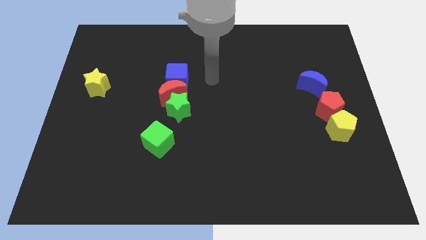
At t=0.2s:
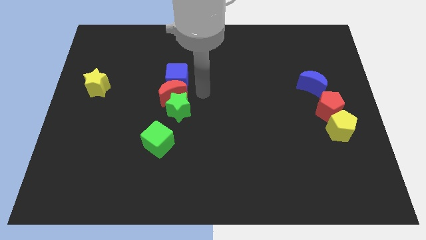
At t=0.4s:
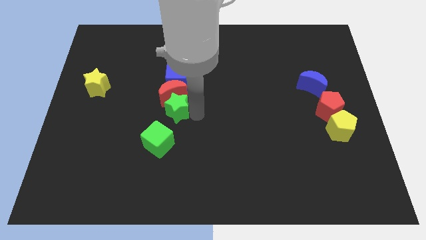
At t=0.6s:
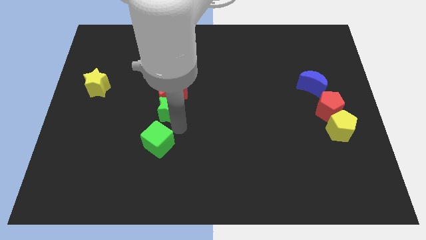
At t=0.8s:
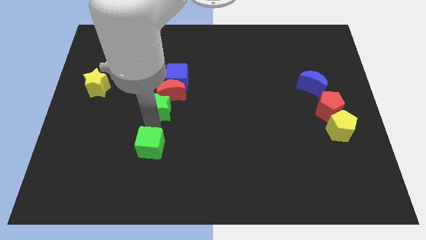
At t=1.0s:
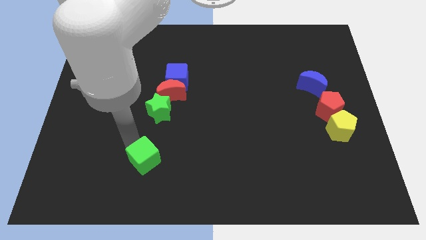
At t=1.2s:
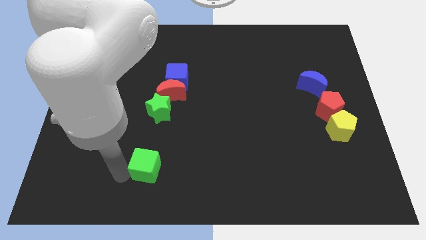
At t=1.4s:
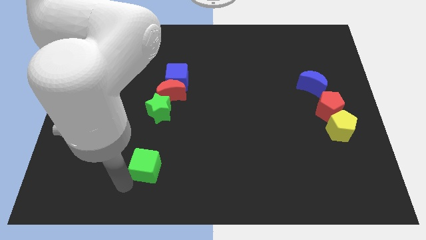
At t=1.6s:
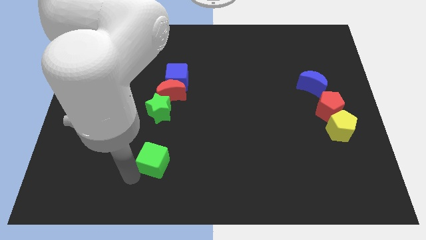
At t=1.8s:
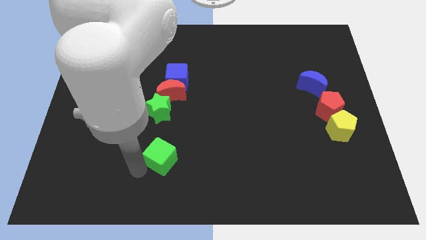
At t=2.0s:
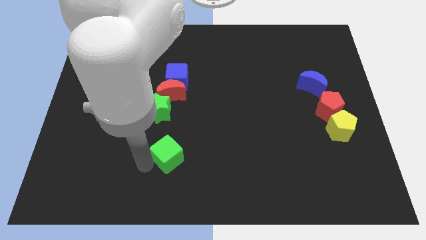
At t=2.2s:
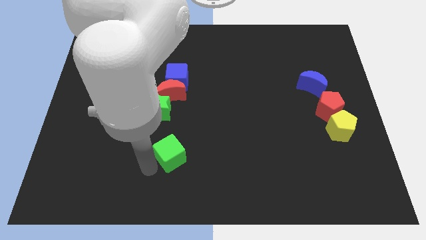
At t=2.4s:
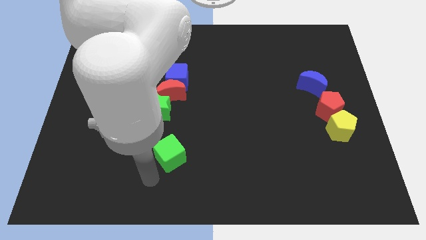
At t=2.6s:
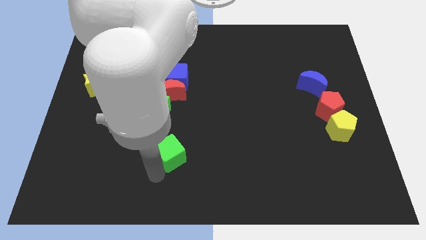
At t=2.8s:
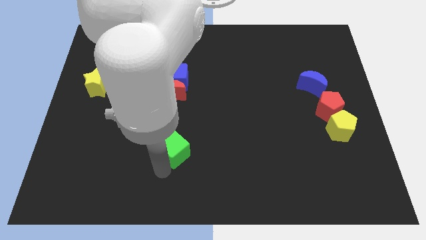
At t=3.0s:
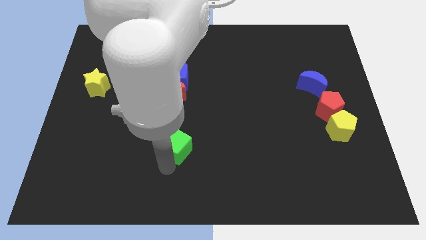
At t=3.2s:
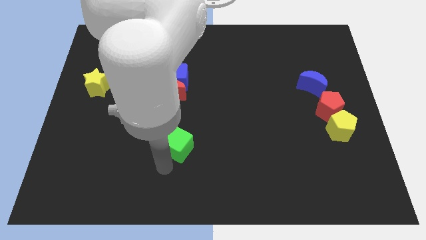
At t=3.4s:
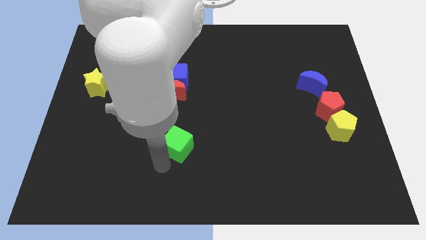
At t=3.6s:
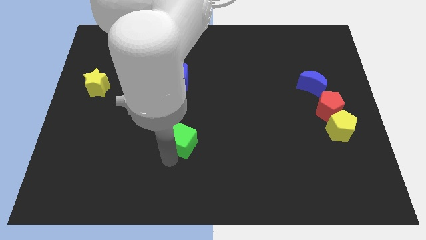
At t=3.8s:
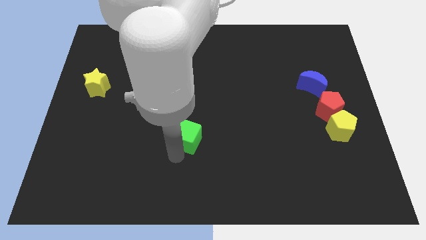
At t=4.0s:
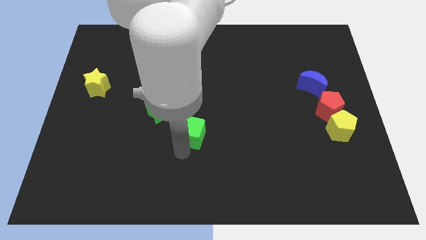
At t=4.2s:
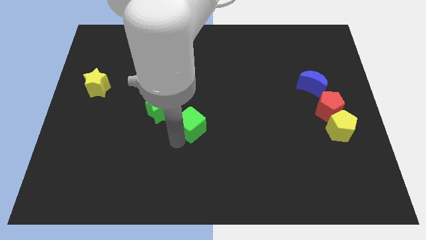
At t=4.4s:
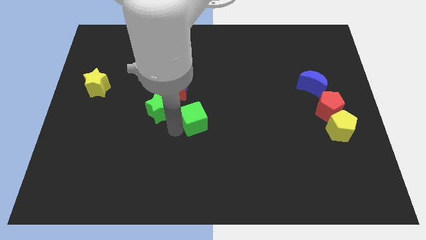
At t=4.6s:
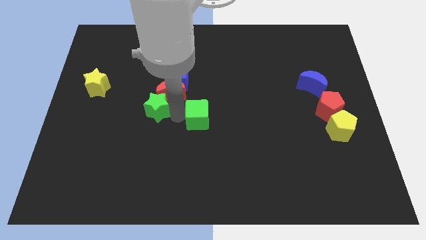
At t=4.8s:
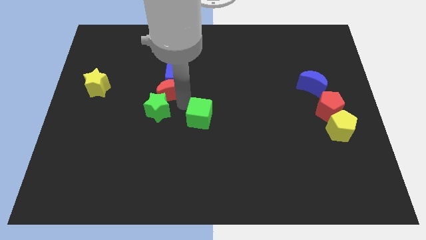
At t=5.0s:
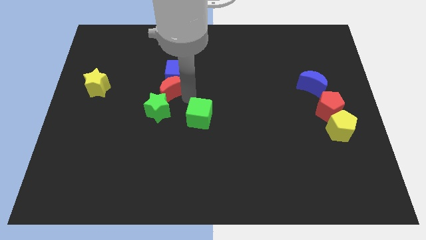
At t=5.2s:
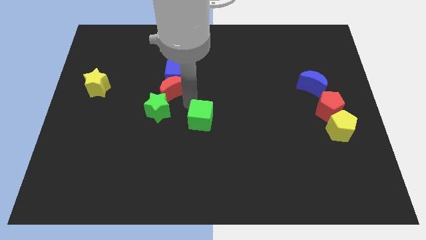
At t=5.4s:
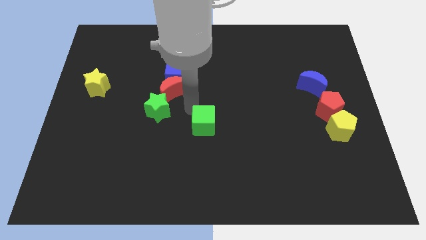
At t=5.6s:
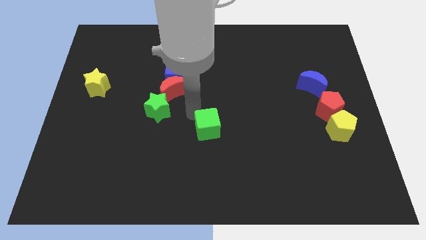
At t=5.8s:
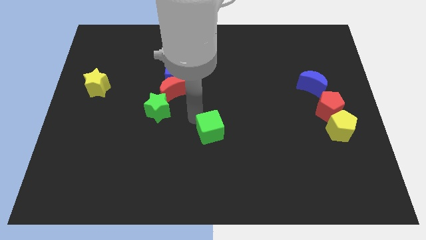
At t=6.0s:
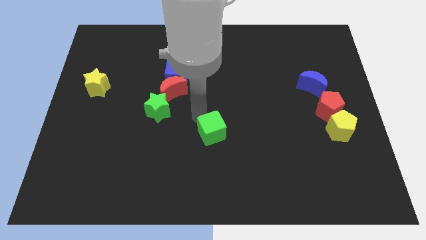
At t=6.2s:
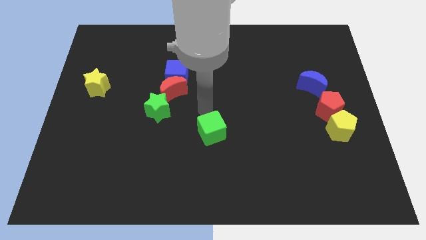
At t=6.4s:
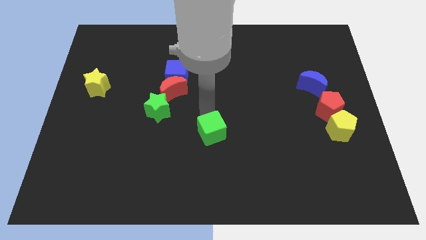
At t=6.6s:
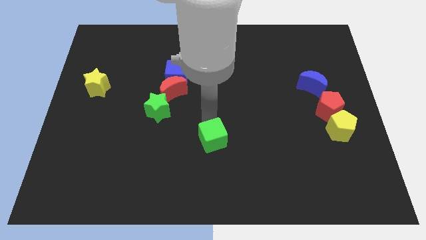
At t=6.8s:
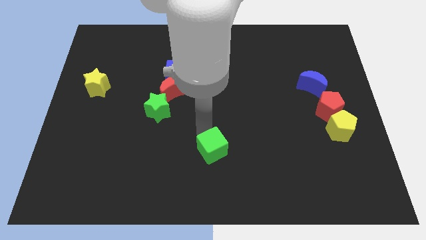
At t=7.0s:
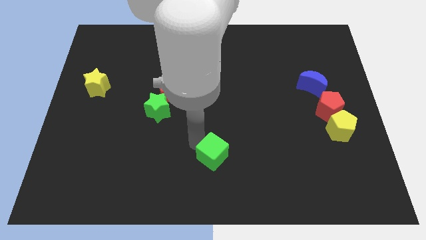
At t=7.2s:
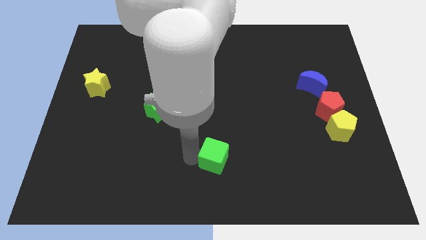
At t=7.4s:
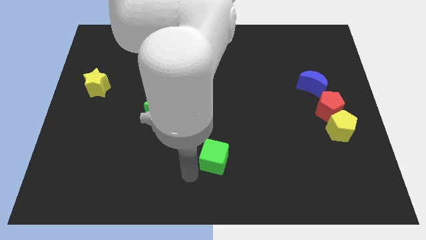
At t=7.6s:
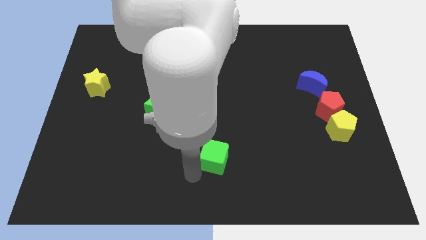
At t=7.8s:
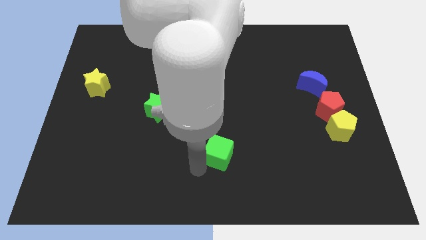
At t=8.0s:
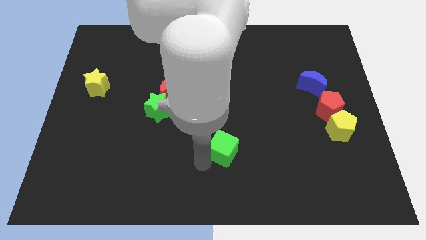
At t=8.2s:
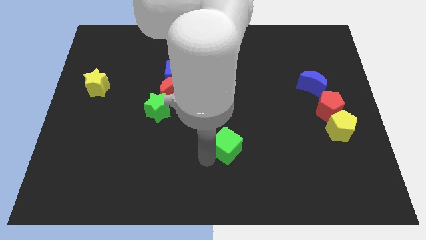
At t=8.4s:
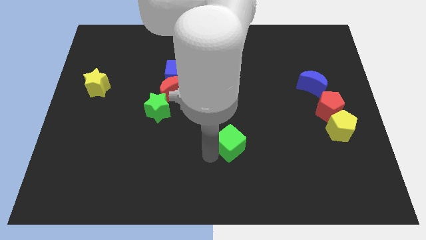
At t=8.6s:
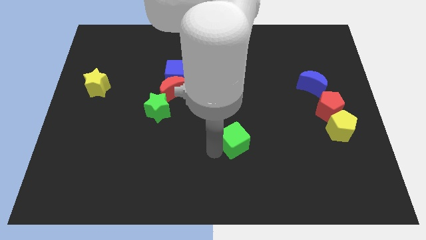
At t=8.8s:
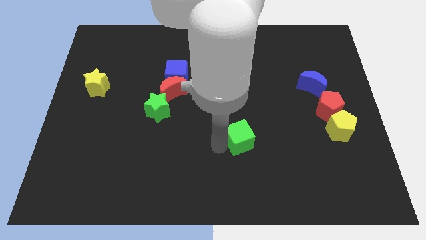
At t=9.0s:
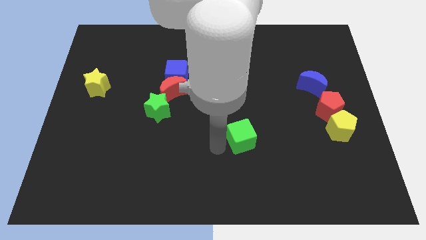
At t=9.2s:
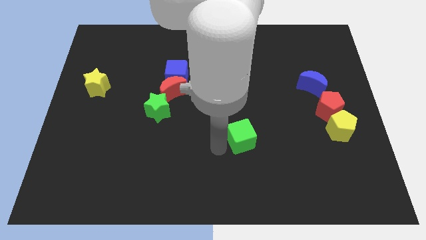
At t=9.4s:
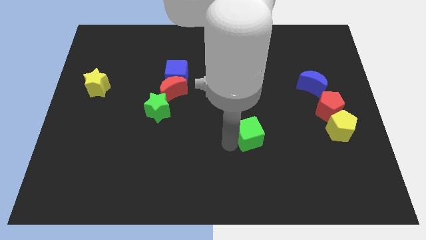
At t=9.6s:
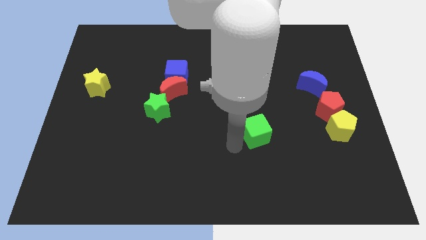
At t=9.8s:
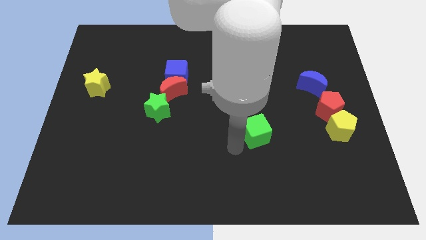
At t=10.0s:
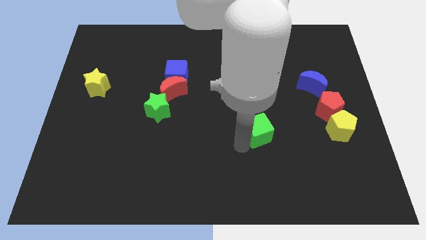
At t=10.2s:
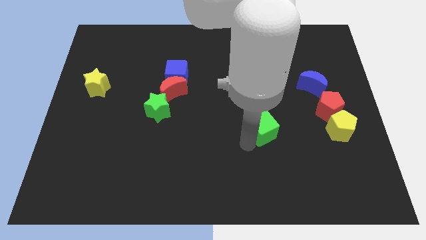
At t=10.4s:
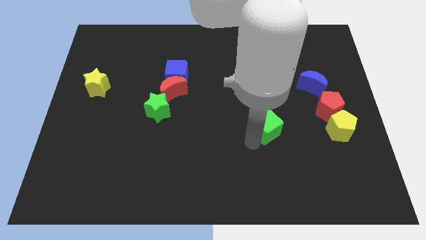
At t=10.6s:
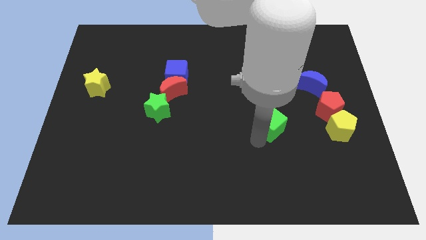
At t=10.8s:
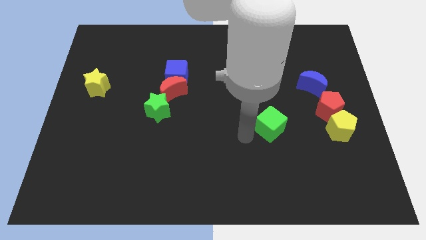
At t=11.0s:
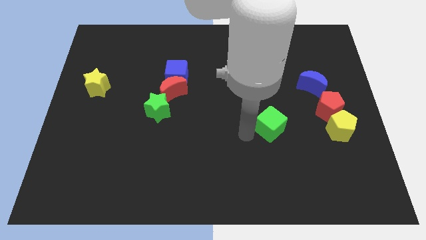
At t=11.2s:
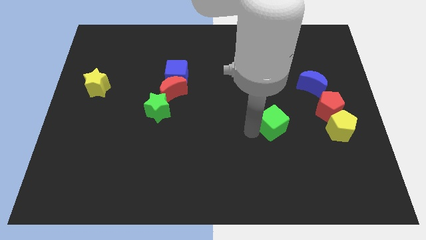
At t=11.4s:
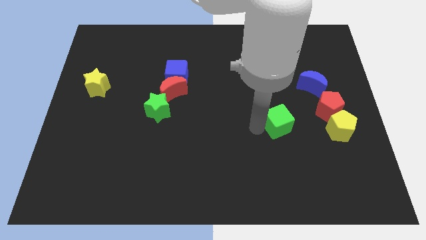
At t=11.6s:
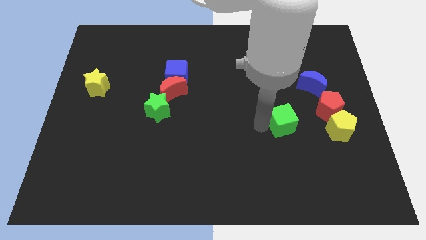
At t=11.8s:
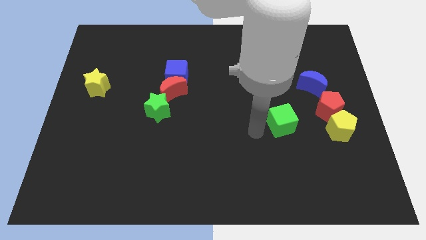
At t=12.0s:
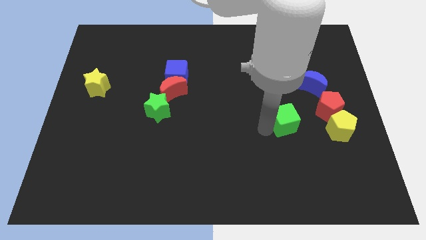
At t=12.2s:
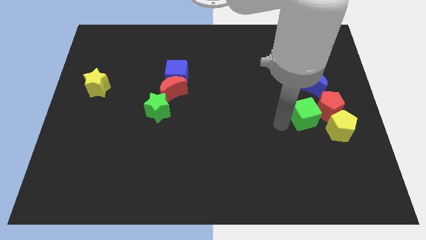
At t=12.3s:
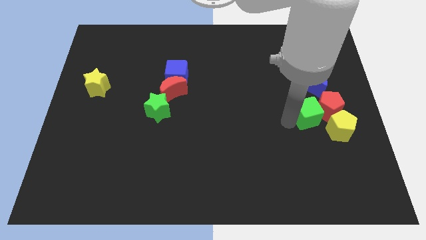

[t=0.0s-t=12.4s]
move the green cube close to the red pentagon

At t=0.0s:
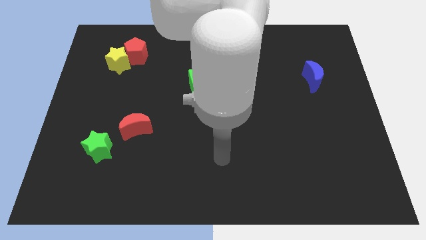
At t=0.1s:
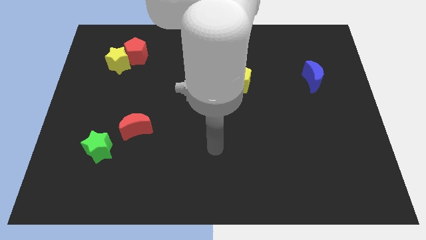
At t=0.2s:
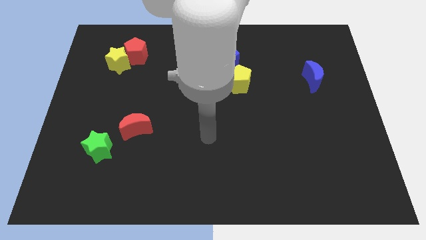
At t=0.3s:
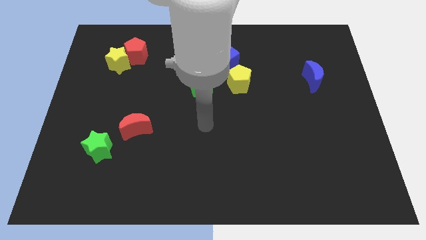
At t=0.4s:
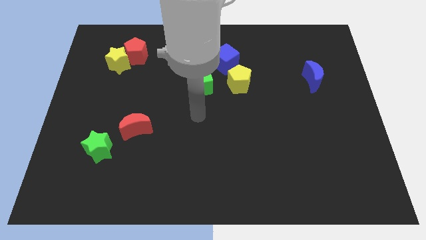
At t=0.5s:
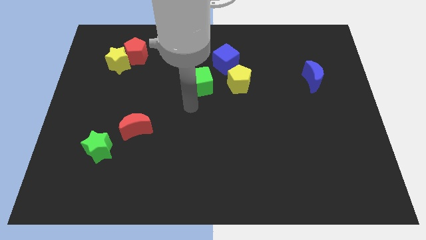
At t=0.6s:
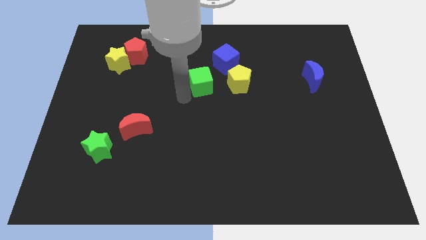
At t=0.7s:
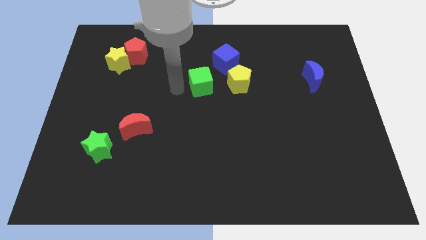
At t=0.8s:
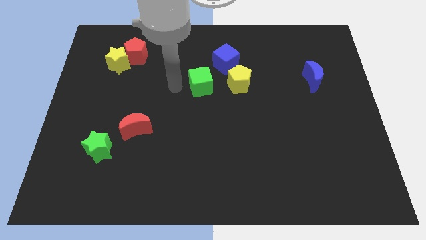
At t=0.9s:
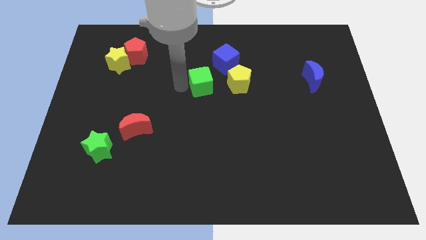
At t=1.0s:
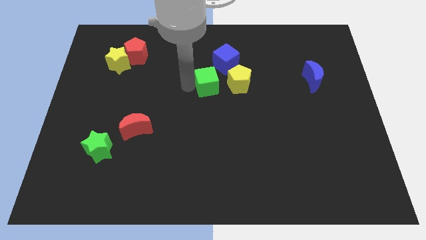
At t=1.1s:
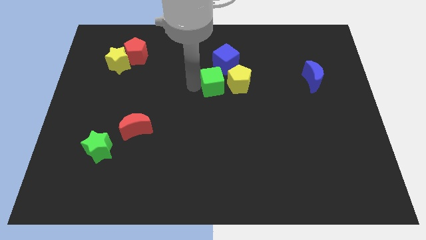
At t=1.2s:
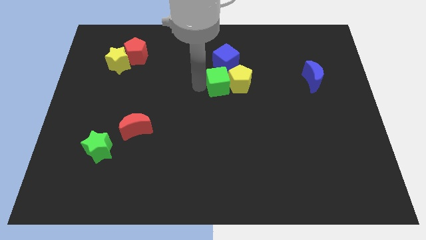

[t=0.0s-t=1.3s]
move the green cube next to the yellow pentagon
